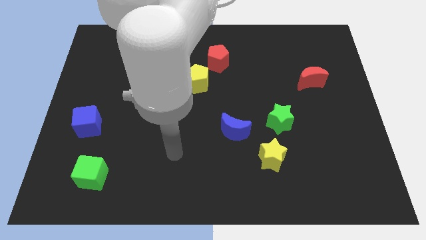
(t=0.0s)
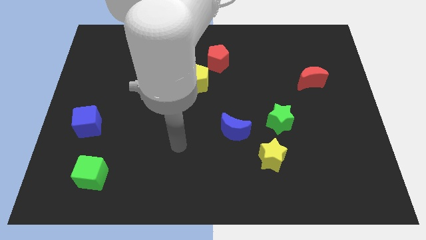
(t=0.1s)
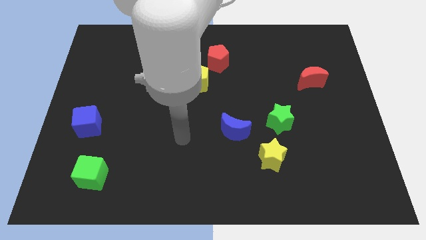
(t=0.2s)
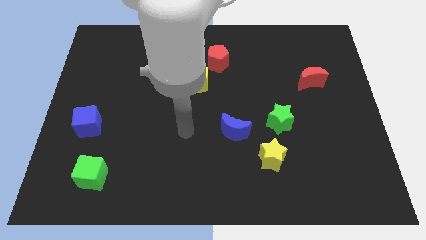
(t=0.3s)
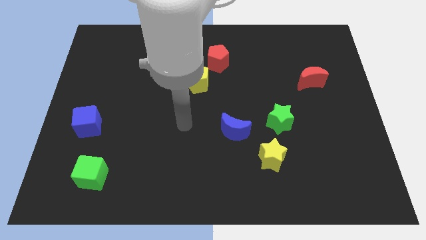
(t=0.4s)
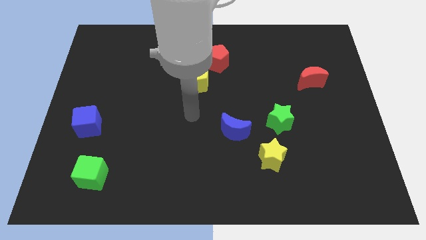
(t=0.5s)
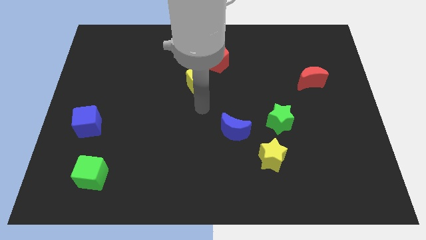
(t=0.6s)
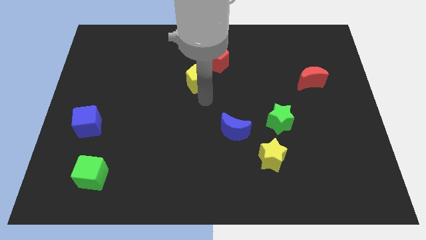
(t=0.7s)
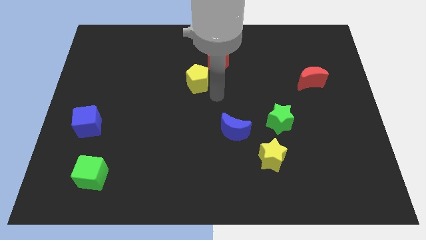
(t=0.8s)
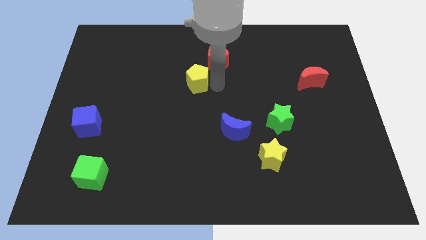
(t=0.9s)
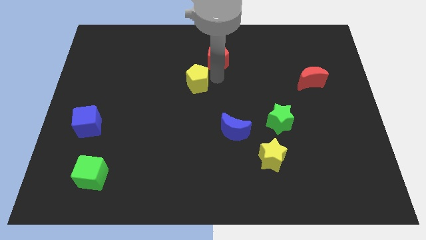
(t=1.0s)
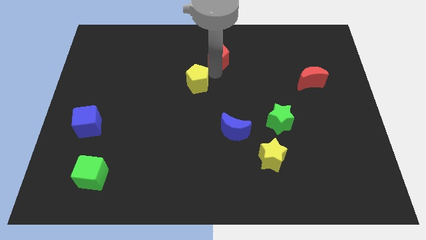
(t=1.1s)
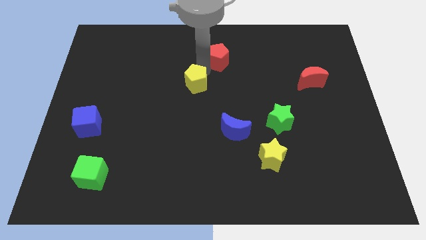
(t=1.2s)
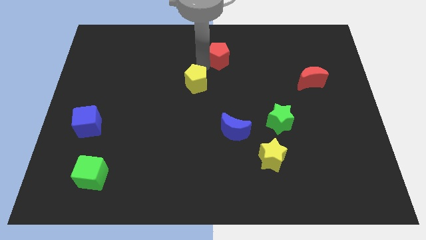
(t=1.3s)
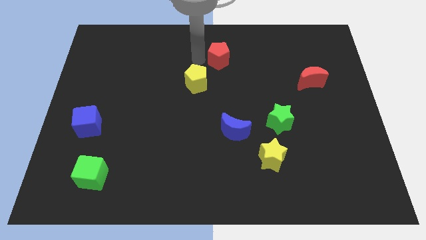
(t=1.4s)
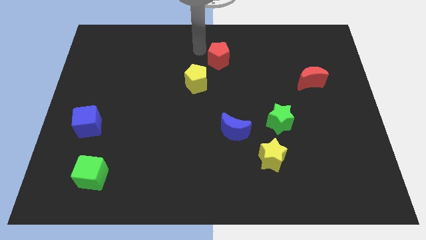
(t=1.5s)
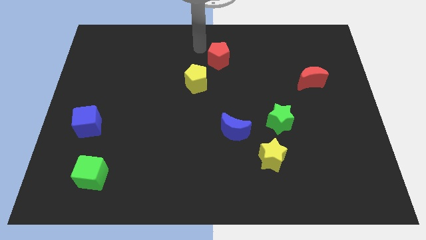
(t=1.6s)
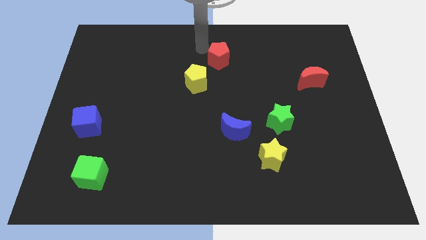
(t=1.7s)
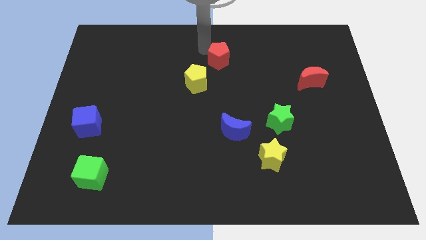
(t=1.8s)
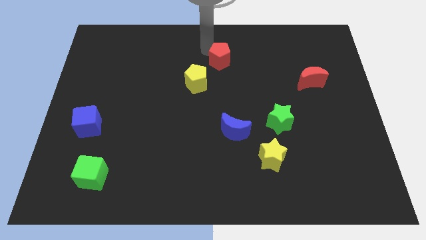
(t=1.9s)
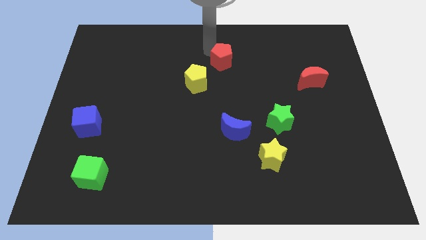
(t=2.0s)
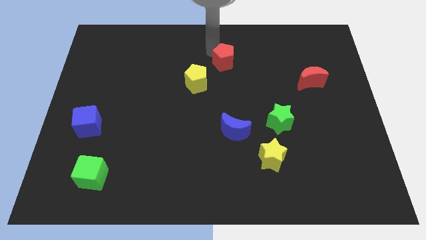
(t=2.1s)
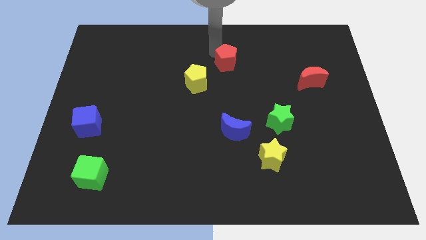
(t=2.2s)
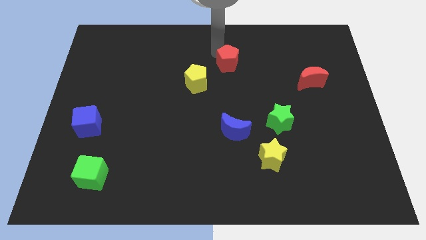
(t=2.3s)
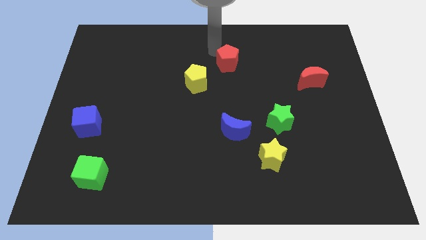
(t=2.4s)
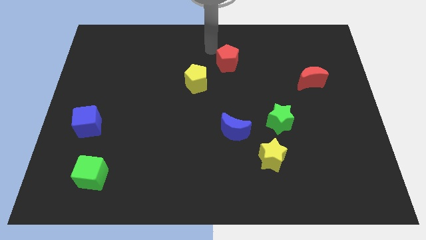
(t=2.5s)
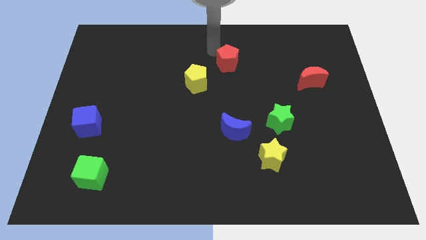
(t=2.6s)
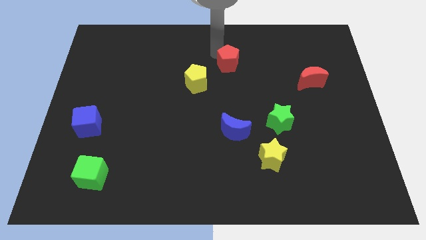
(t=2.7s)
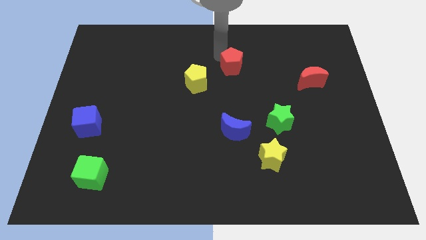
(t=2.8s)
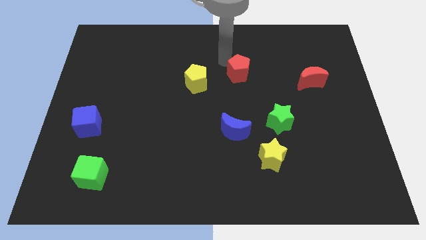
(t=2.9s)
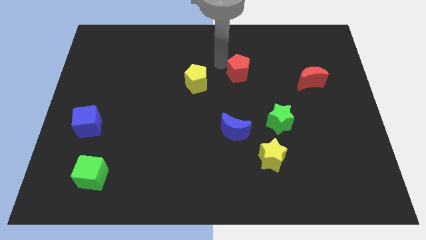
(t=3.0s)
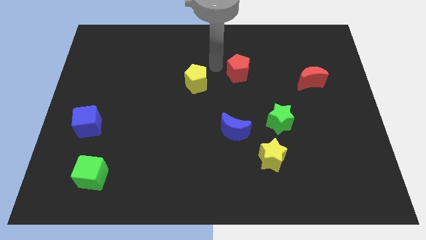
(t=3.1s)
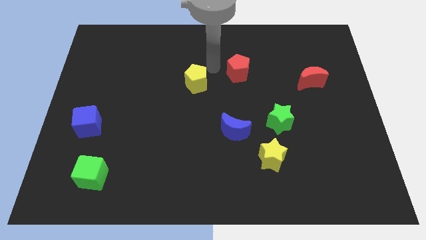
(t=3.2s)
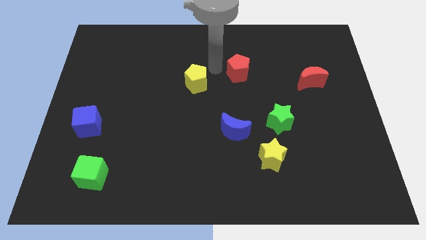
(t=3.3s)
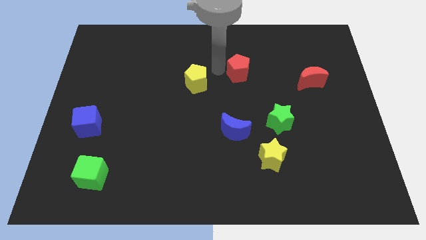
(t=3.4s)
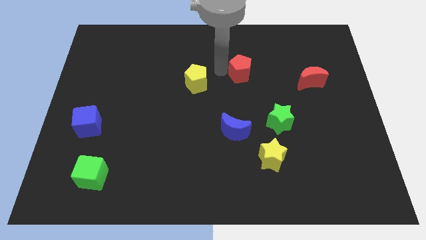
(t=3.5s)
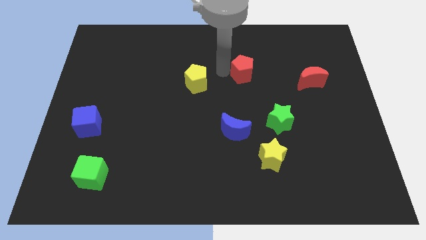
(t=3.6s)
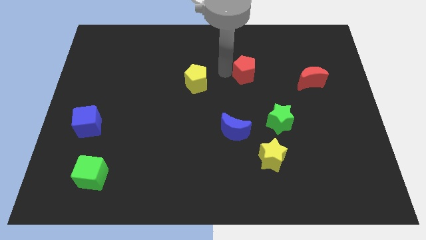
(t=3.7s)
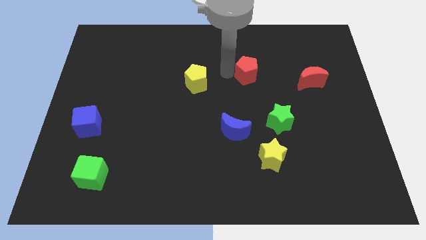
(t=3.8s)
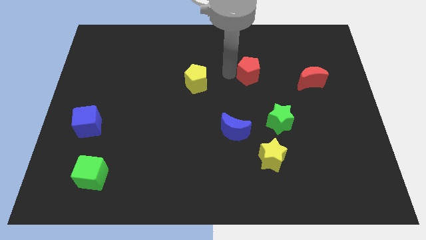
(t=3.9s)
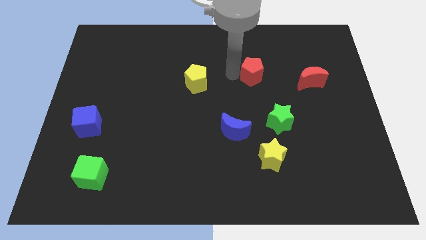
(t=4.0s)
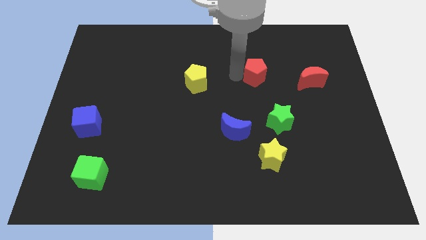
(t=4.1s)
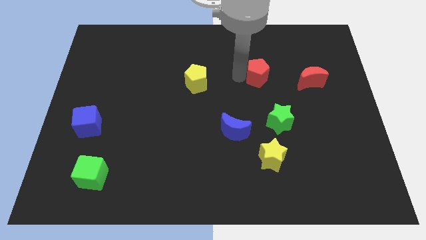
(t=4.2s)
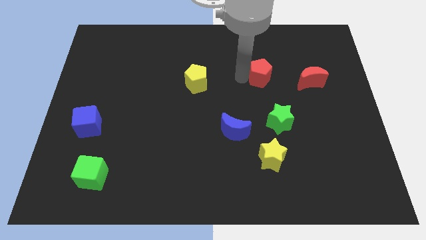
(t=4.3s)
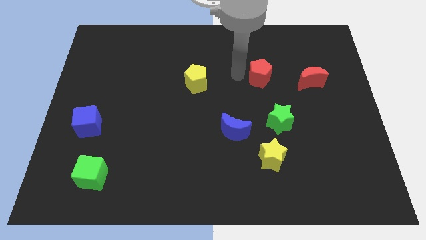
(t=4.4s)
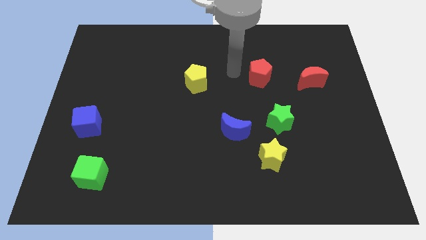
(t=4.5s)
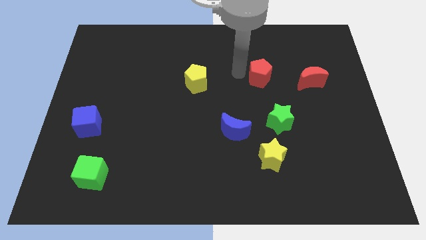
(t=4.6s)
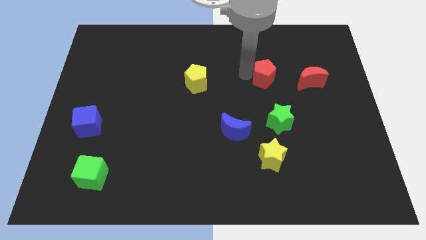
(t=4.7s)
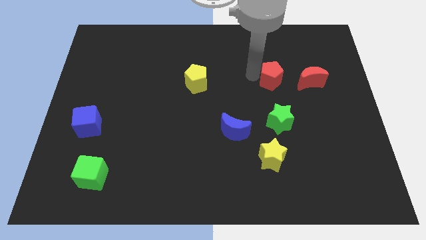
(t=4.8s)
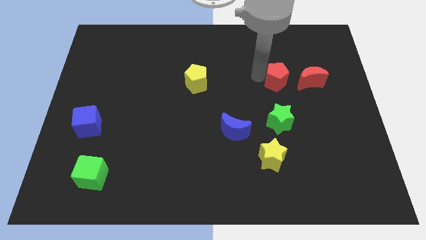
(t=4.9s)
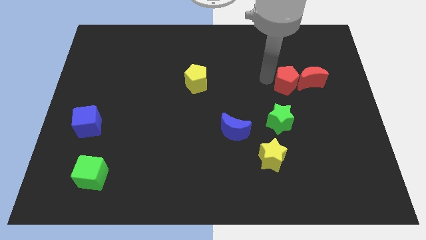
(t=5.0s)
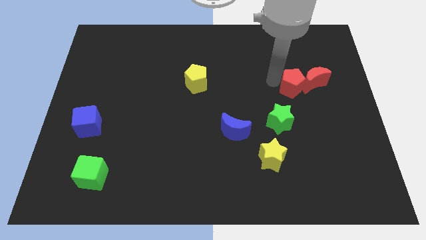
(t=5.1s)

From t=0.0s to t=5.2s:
move the red pentagon next to the red moon

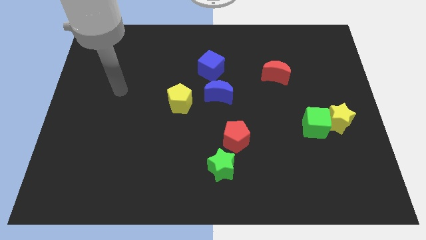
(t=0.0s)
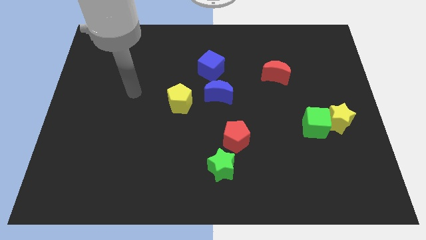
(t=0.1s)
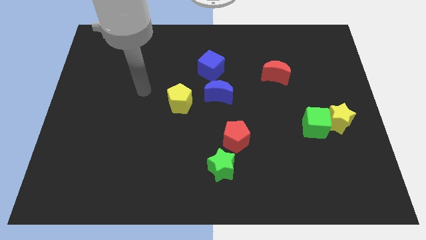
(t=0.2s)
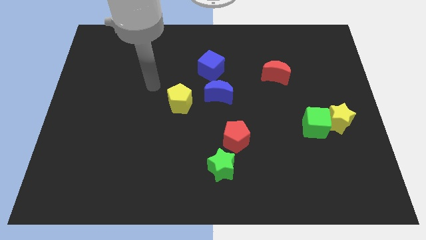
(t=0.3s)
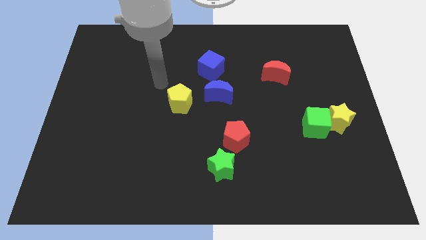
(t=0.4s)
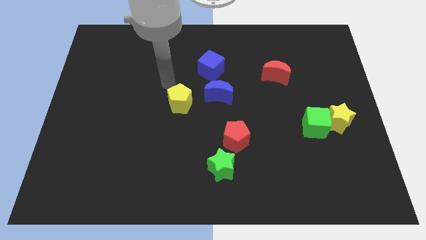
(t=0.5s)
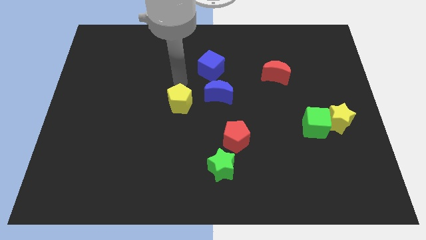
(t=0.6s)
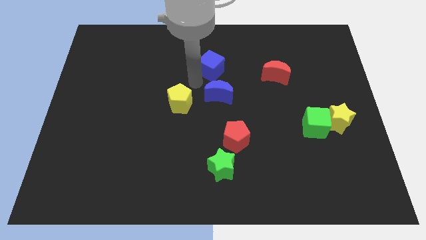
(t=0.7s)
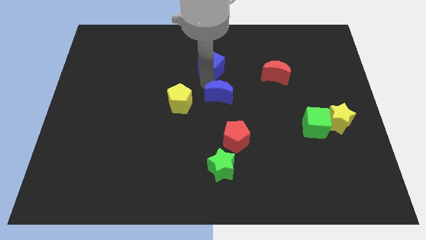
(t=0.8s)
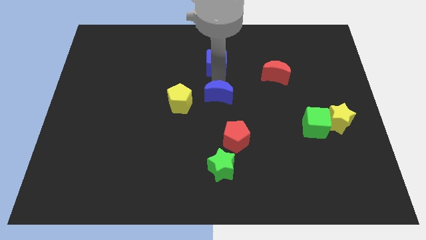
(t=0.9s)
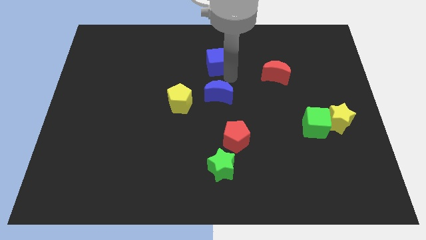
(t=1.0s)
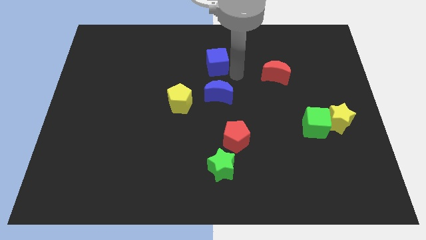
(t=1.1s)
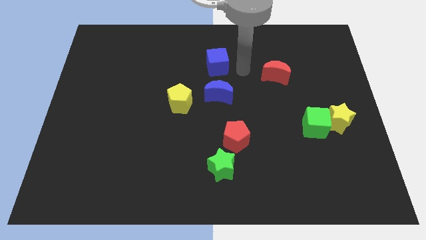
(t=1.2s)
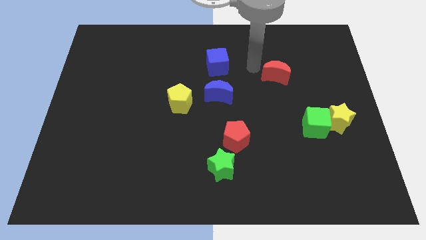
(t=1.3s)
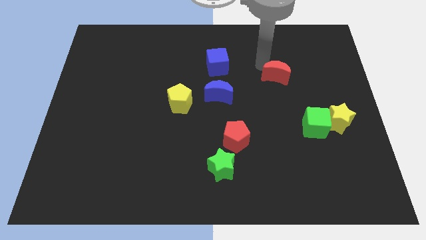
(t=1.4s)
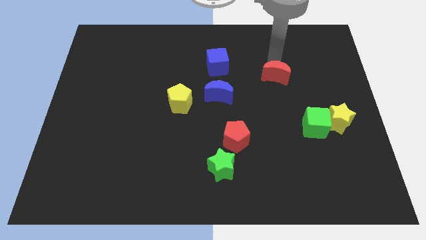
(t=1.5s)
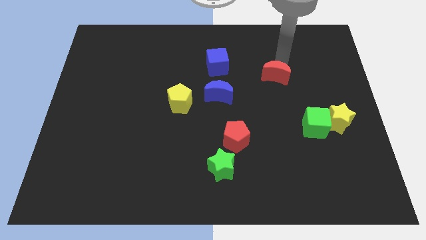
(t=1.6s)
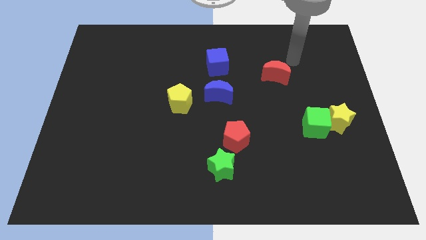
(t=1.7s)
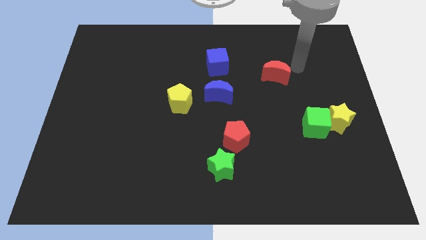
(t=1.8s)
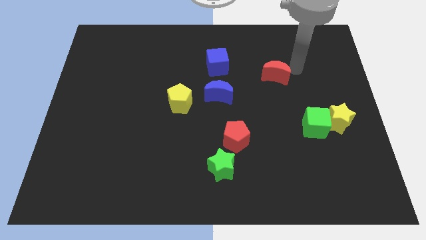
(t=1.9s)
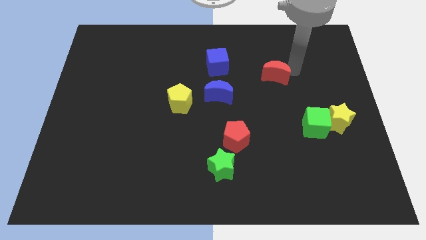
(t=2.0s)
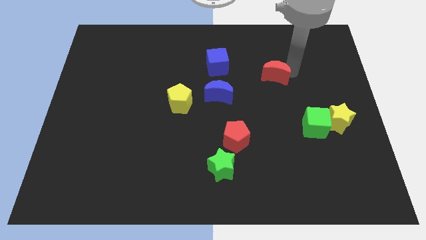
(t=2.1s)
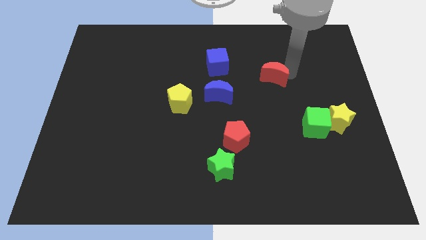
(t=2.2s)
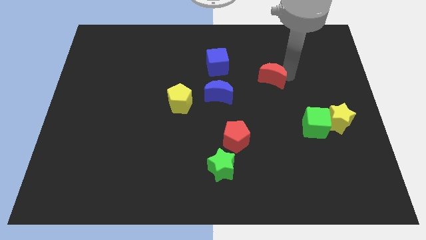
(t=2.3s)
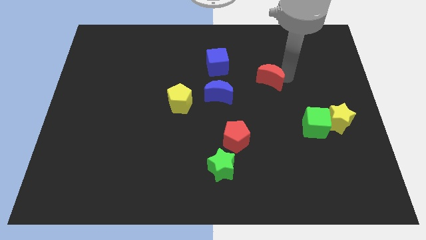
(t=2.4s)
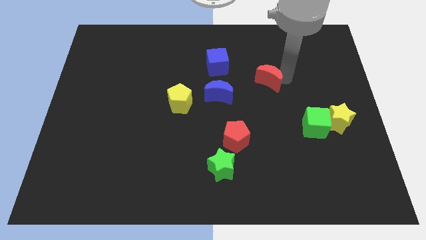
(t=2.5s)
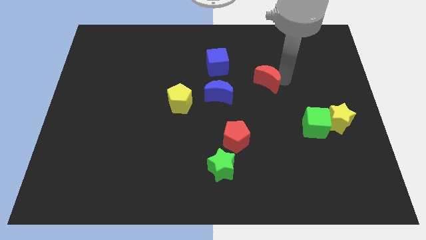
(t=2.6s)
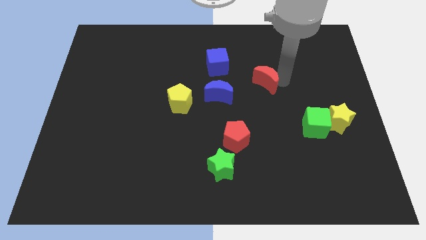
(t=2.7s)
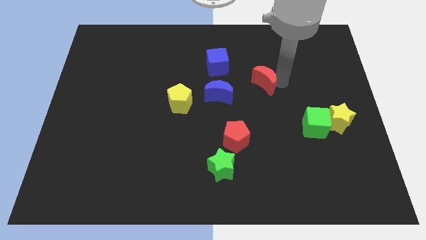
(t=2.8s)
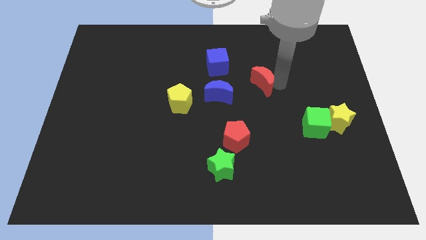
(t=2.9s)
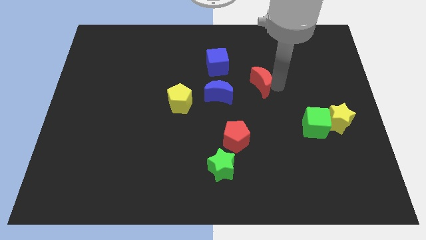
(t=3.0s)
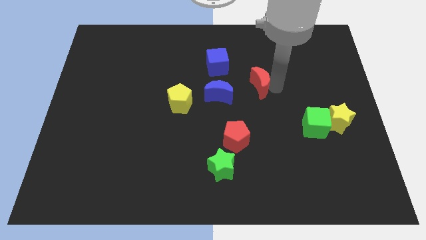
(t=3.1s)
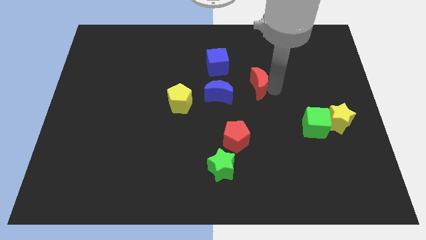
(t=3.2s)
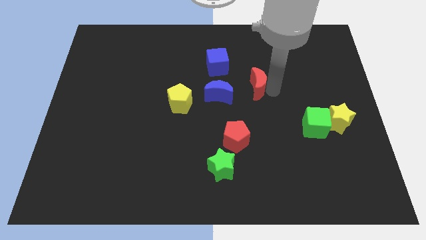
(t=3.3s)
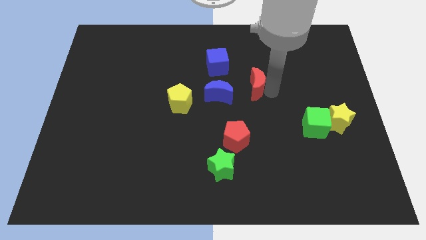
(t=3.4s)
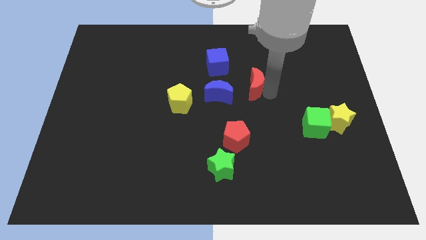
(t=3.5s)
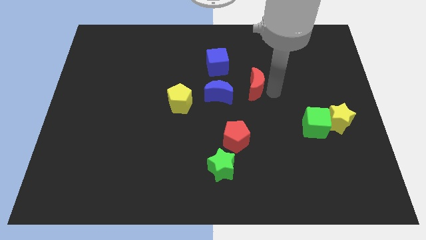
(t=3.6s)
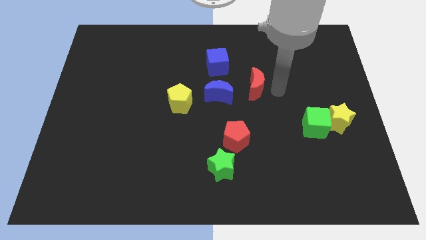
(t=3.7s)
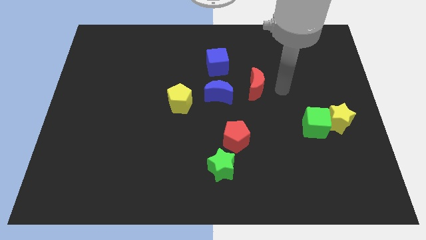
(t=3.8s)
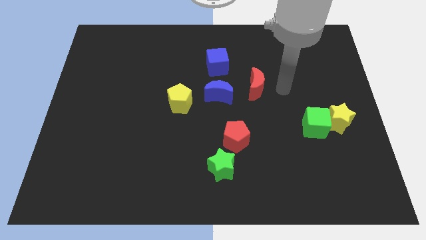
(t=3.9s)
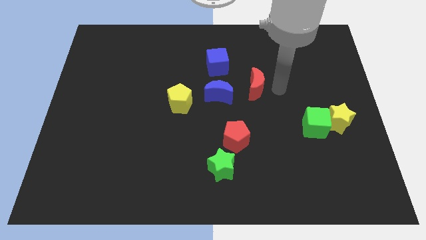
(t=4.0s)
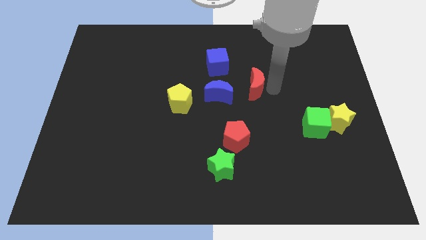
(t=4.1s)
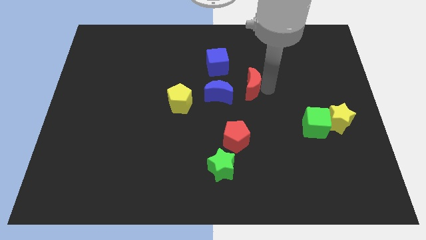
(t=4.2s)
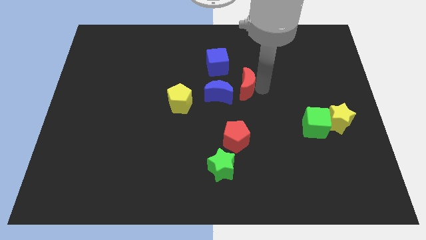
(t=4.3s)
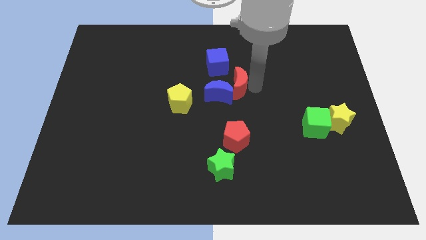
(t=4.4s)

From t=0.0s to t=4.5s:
push the red moon to the blue moon
